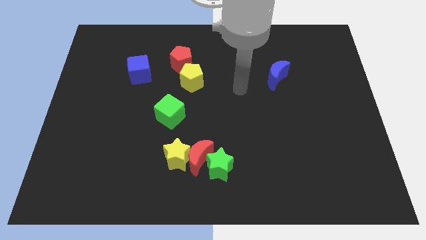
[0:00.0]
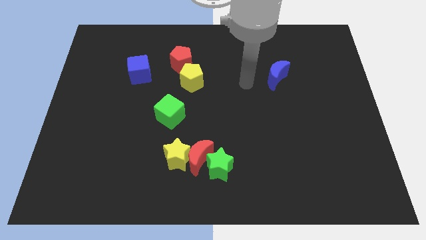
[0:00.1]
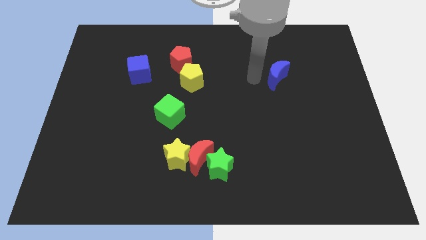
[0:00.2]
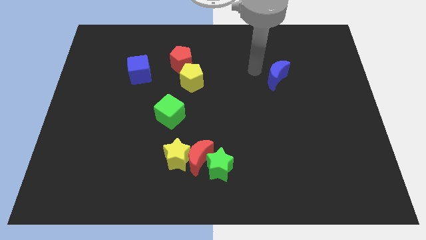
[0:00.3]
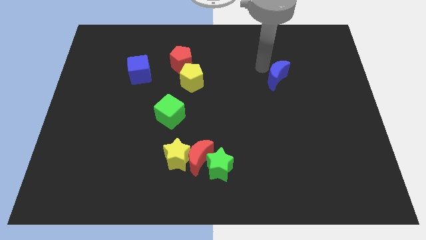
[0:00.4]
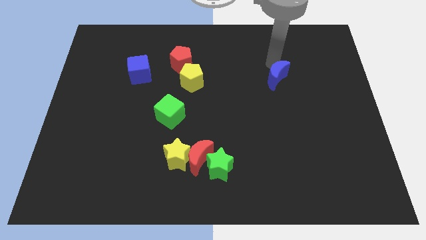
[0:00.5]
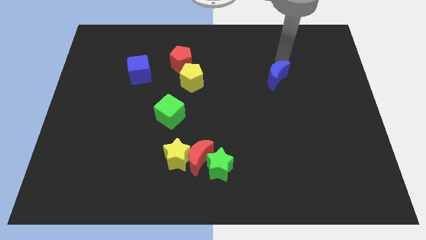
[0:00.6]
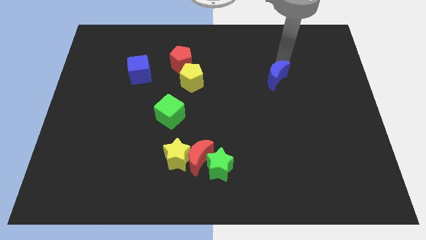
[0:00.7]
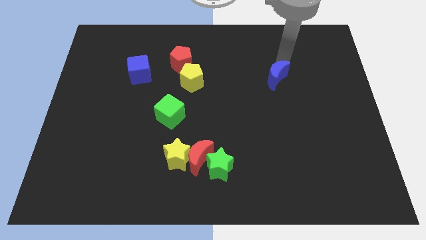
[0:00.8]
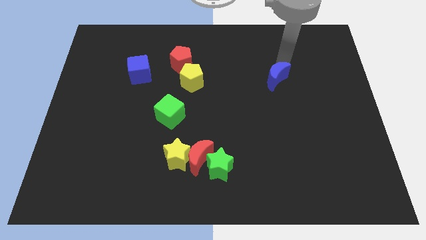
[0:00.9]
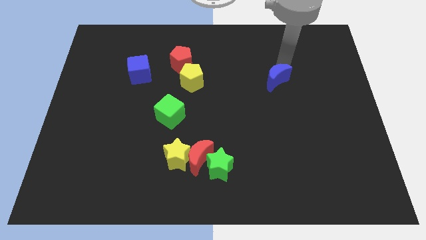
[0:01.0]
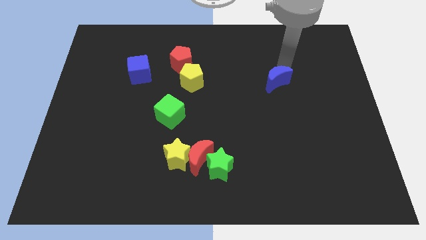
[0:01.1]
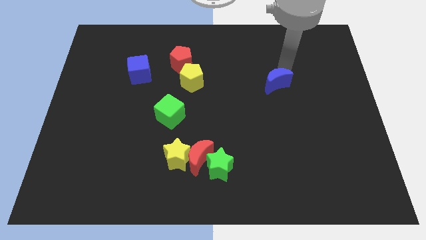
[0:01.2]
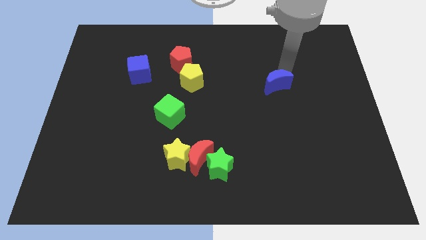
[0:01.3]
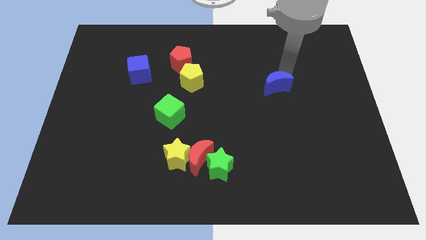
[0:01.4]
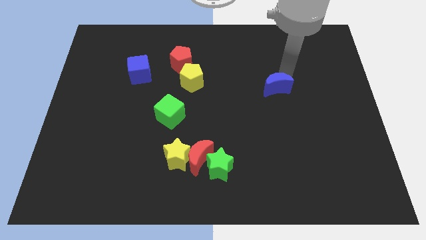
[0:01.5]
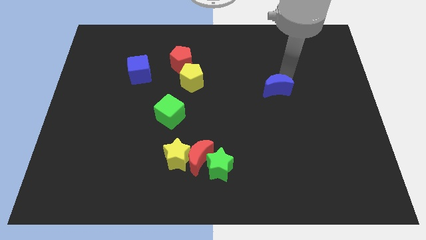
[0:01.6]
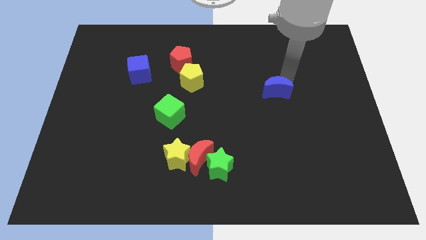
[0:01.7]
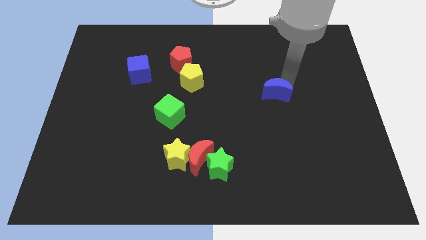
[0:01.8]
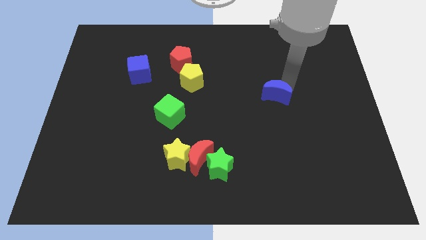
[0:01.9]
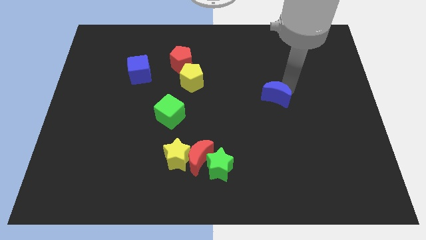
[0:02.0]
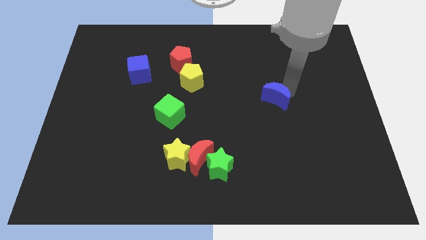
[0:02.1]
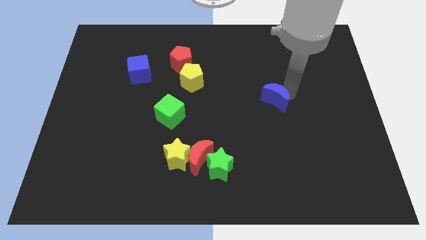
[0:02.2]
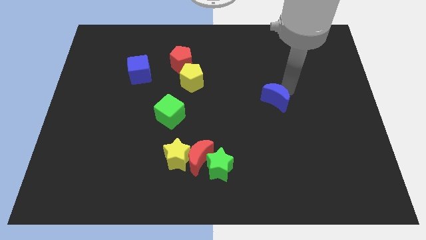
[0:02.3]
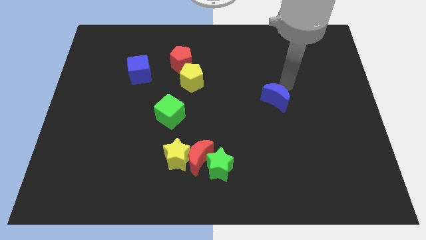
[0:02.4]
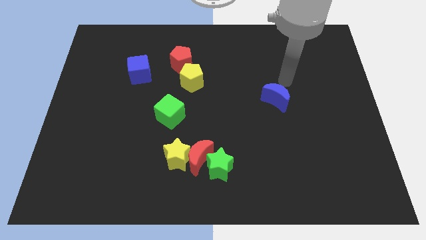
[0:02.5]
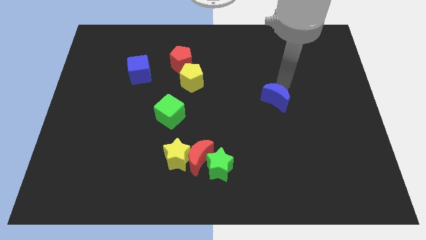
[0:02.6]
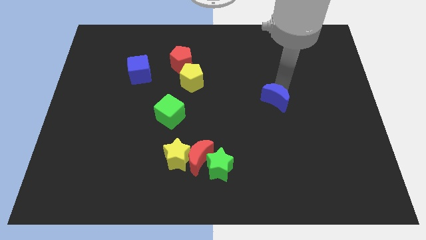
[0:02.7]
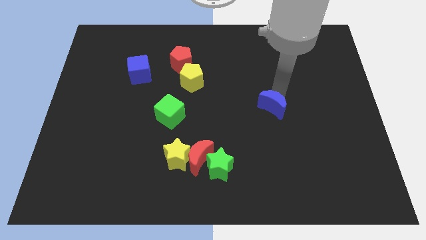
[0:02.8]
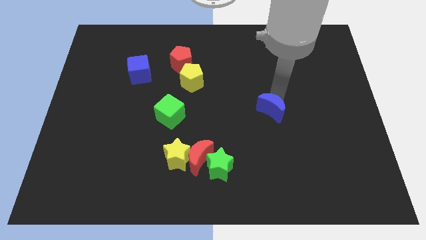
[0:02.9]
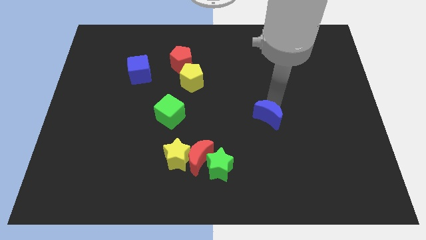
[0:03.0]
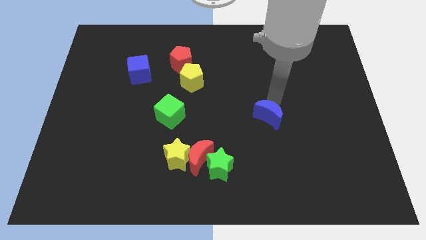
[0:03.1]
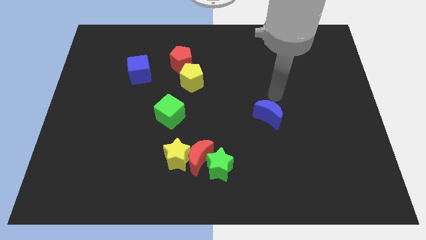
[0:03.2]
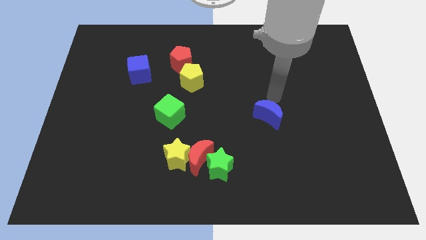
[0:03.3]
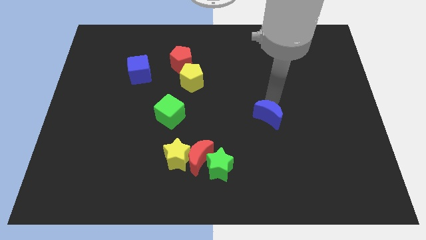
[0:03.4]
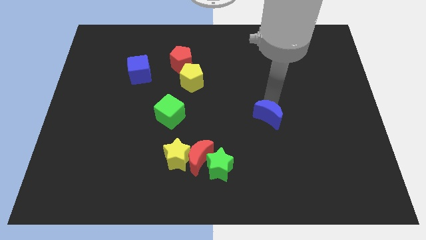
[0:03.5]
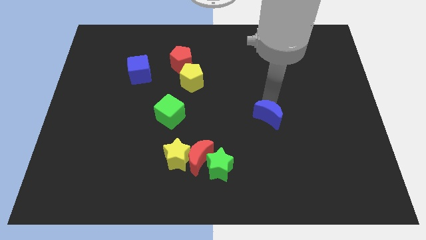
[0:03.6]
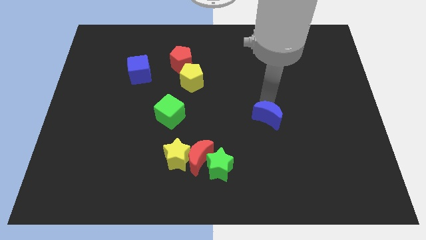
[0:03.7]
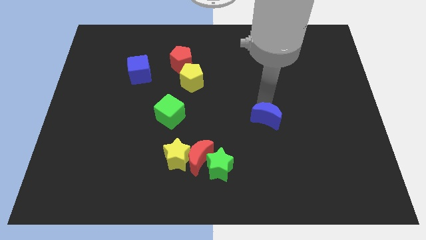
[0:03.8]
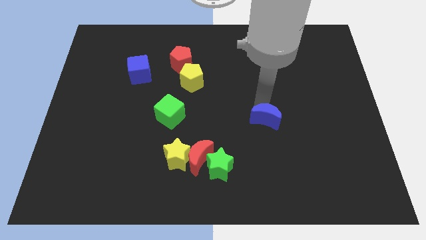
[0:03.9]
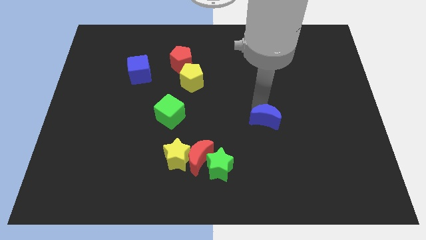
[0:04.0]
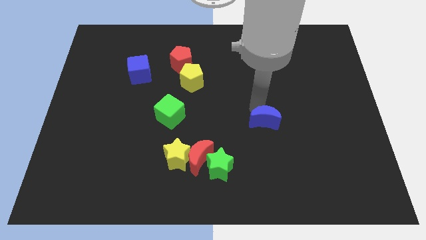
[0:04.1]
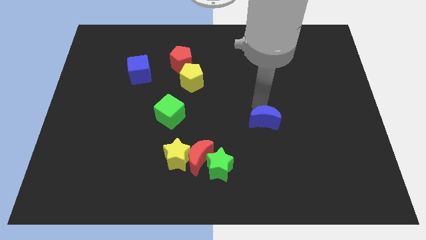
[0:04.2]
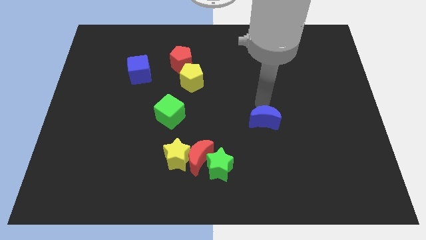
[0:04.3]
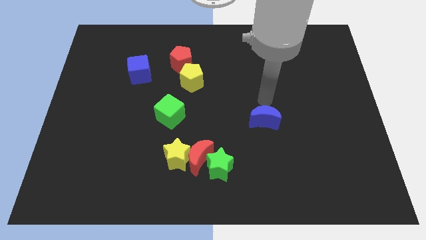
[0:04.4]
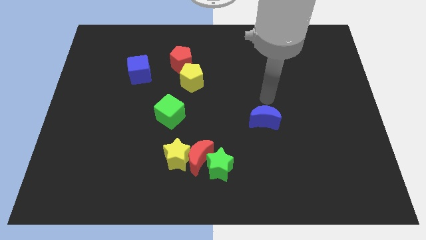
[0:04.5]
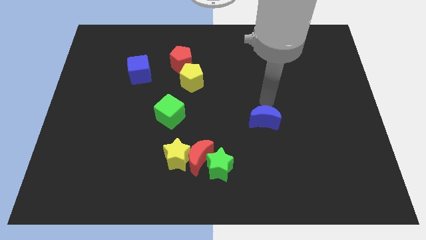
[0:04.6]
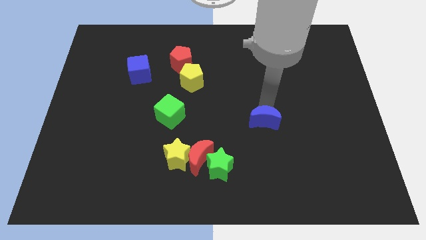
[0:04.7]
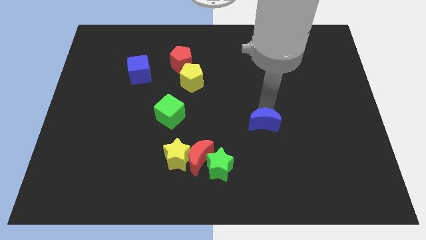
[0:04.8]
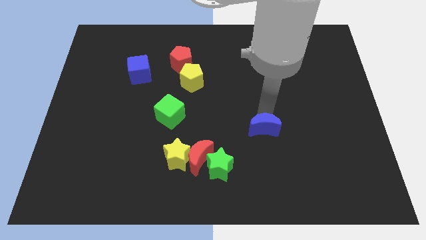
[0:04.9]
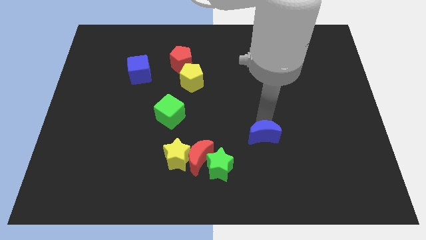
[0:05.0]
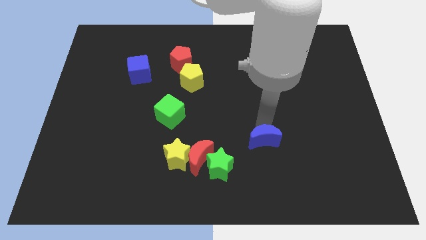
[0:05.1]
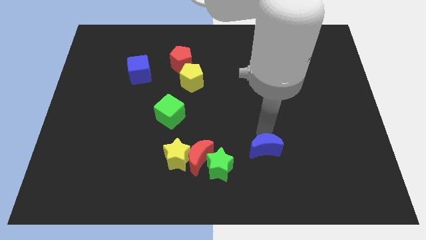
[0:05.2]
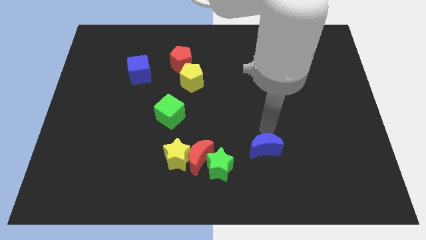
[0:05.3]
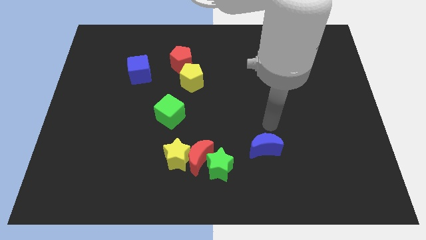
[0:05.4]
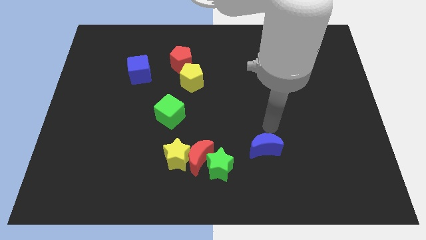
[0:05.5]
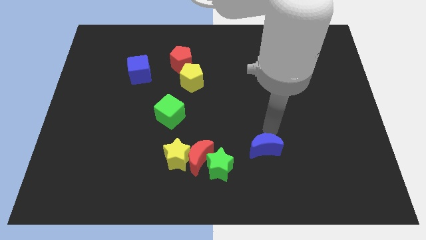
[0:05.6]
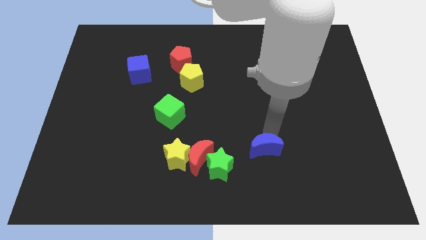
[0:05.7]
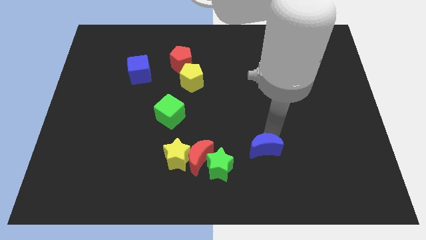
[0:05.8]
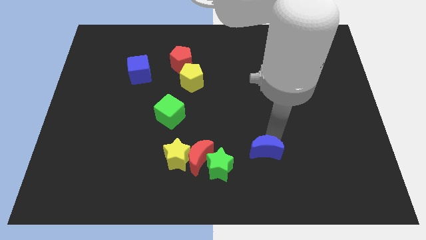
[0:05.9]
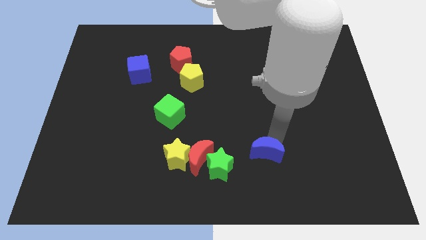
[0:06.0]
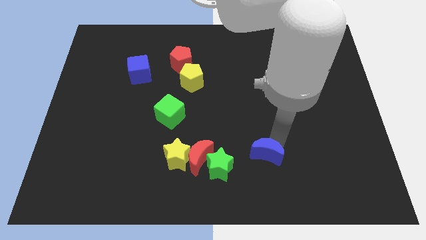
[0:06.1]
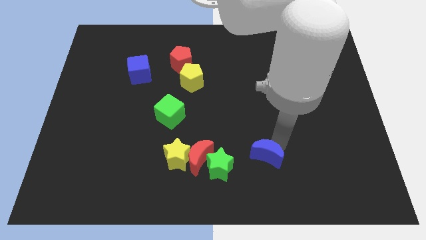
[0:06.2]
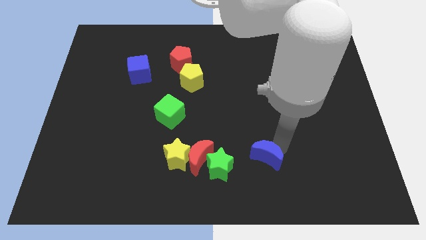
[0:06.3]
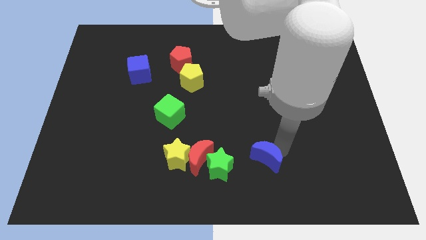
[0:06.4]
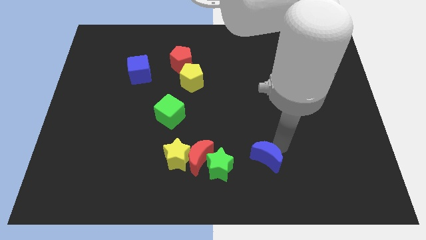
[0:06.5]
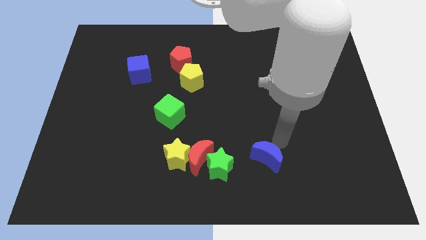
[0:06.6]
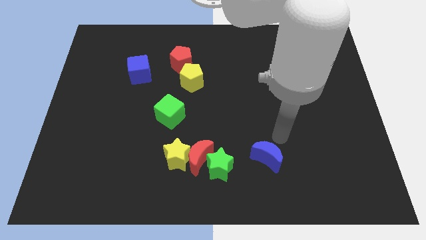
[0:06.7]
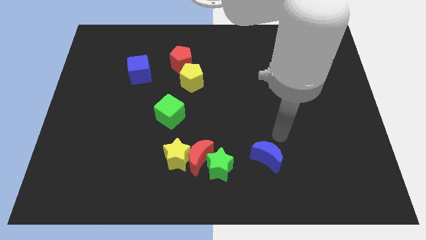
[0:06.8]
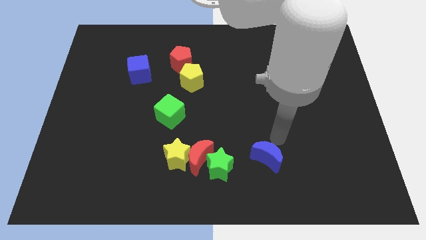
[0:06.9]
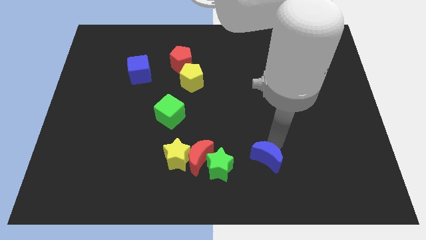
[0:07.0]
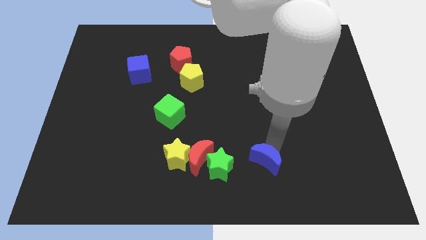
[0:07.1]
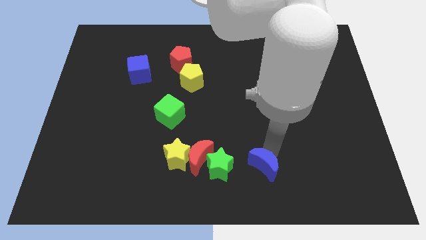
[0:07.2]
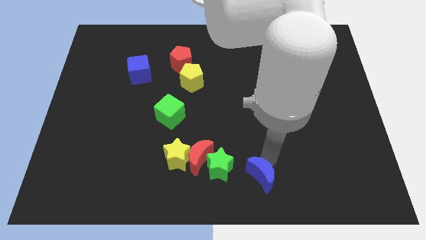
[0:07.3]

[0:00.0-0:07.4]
put the blue moon to the bottom side
